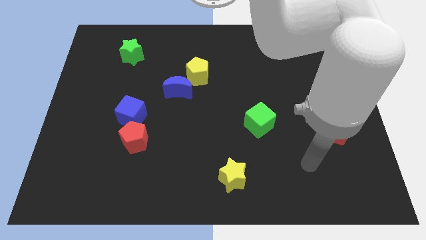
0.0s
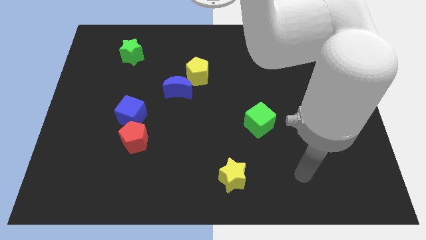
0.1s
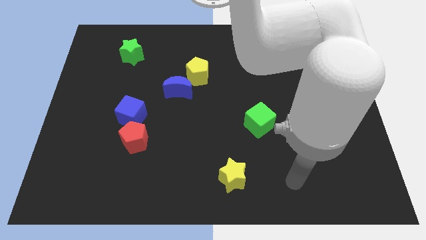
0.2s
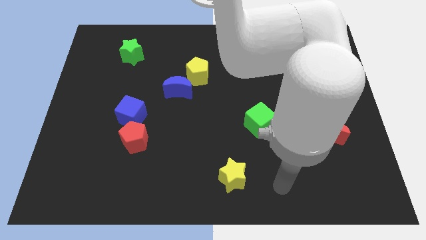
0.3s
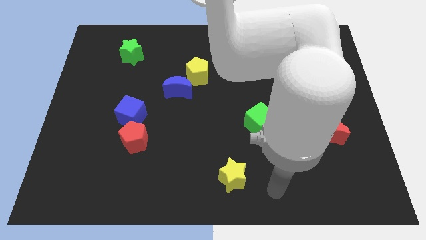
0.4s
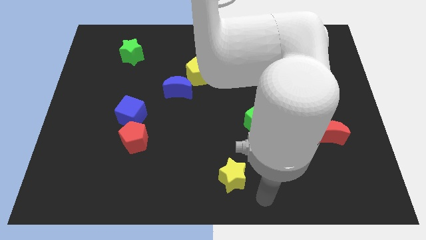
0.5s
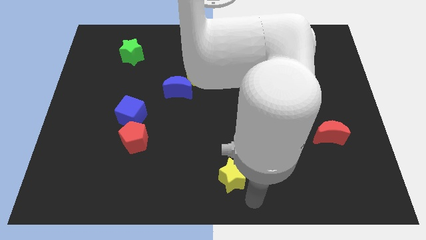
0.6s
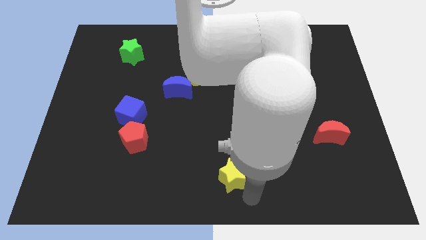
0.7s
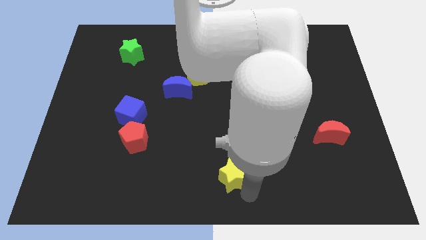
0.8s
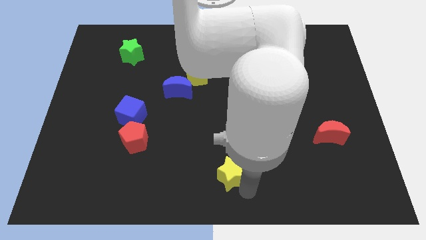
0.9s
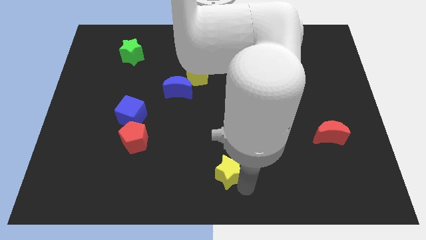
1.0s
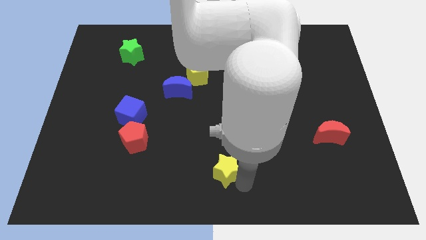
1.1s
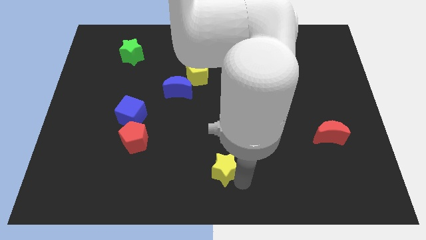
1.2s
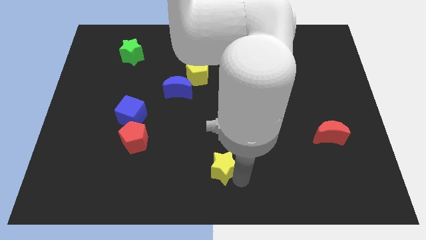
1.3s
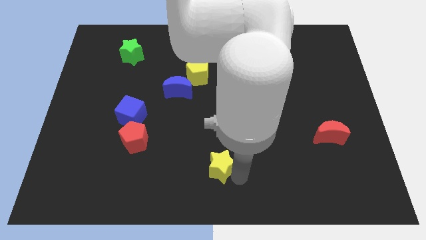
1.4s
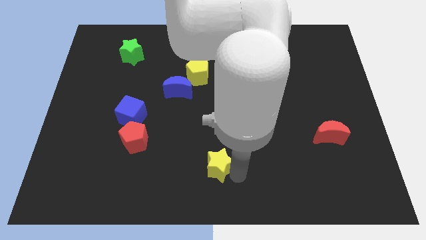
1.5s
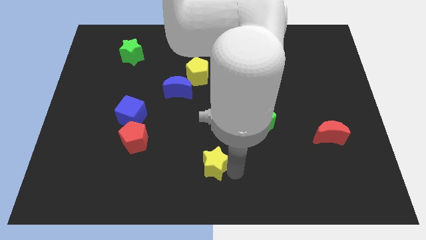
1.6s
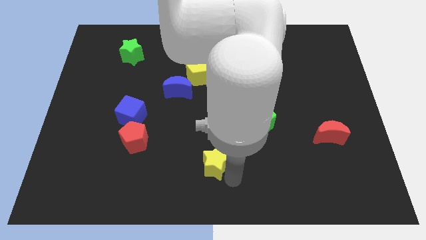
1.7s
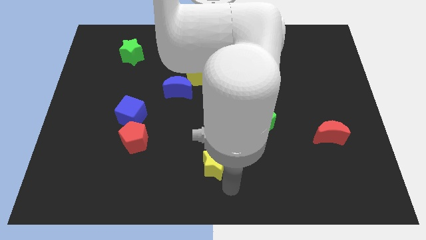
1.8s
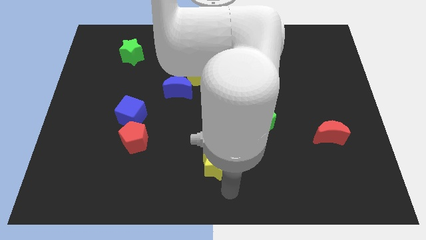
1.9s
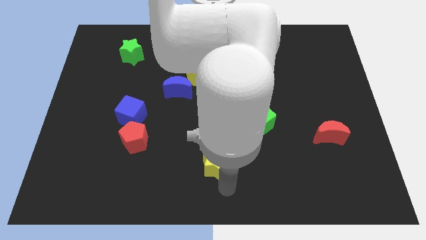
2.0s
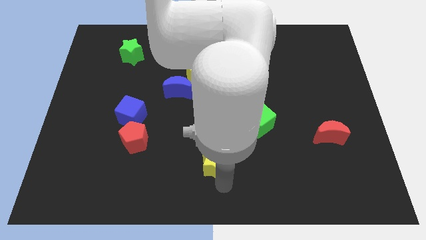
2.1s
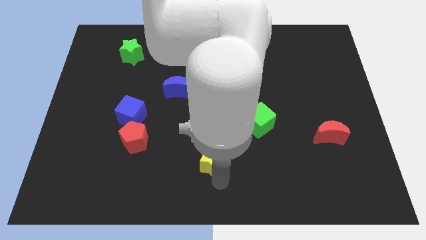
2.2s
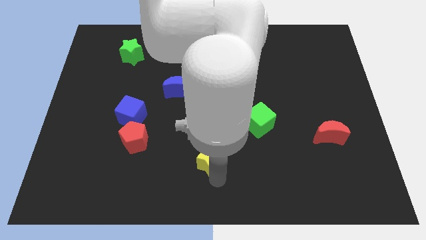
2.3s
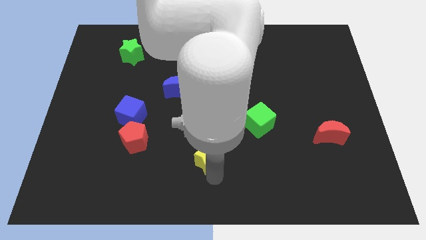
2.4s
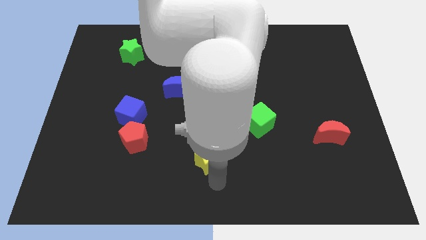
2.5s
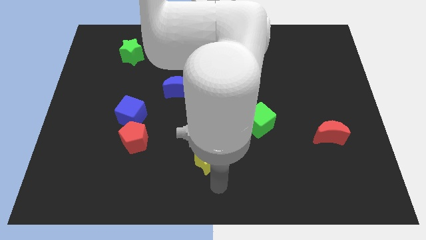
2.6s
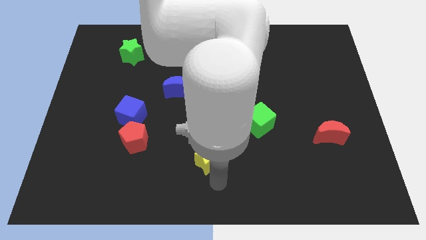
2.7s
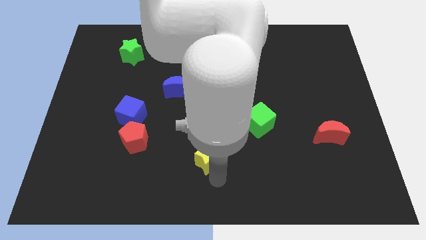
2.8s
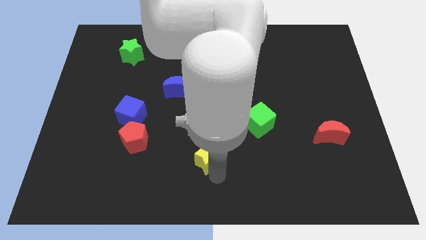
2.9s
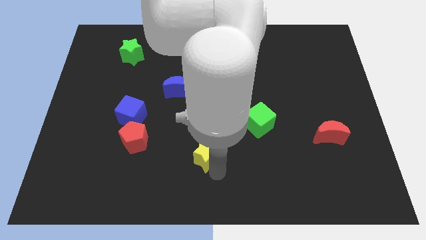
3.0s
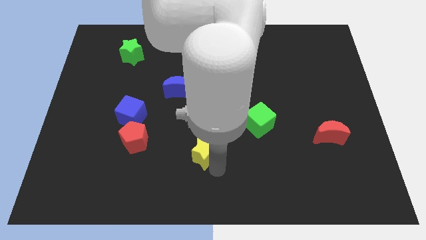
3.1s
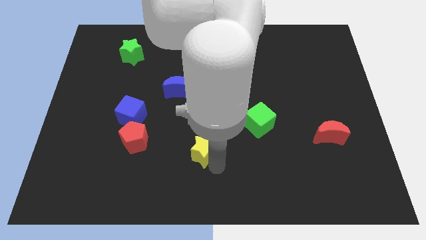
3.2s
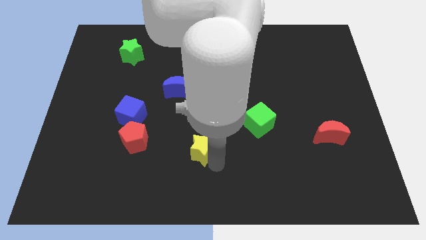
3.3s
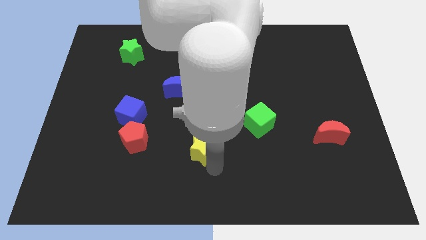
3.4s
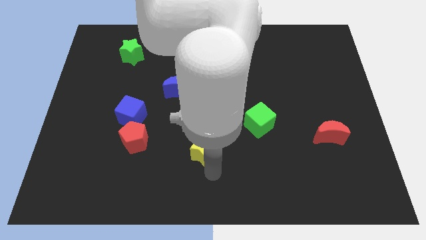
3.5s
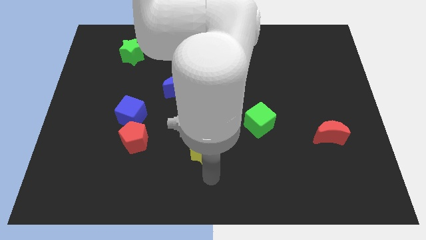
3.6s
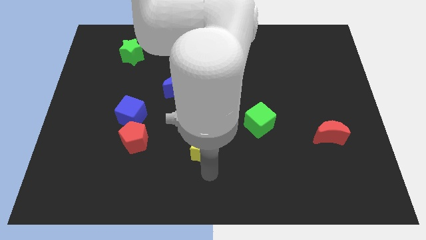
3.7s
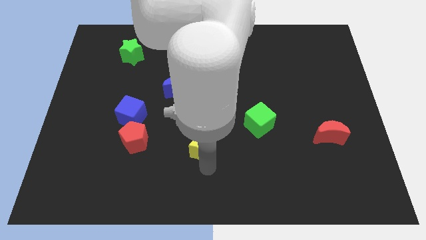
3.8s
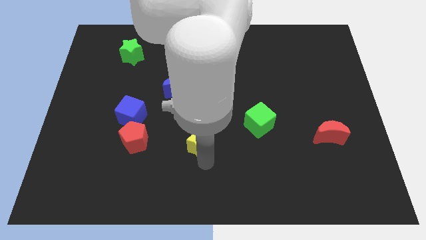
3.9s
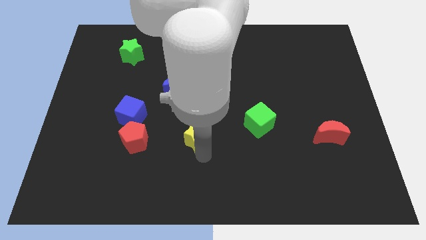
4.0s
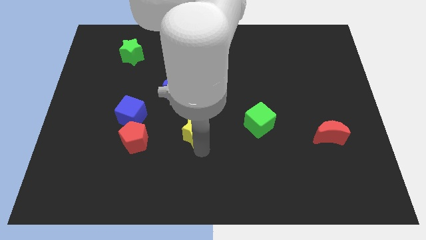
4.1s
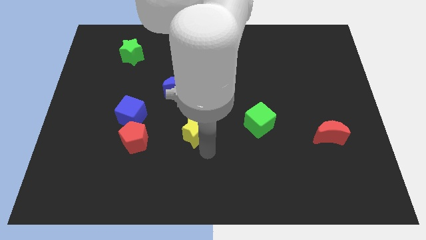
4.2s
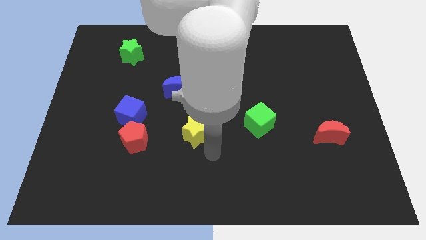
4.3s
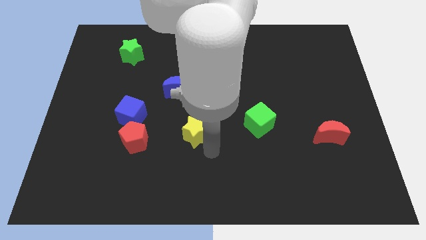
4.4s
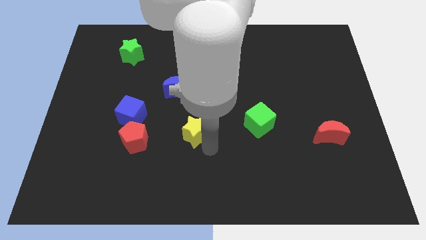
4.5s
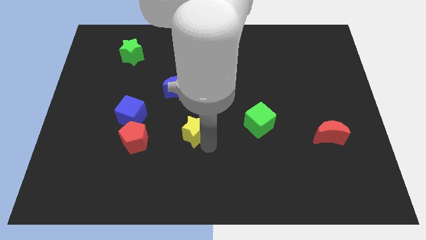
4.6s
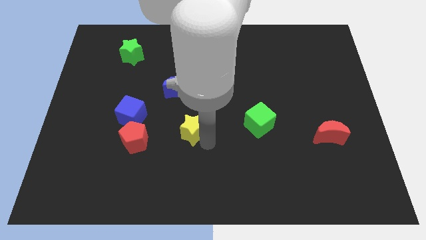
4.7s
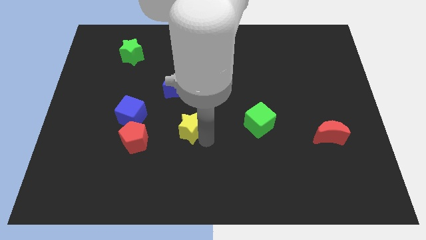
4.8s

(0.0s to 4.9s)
move the yellow star to the right side of the blue cube

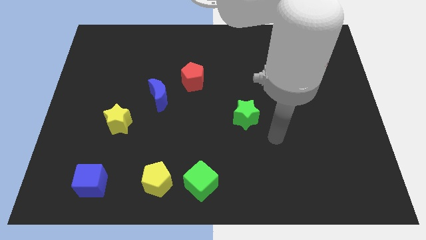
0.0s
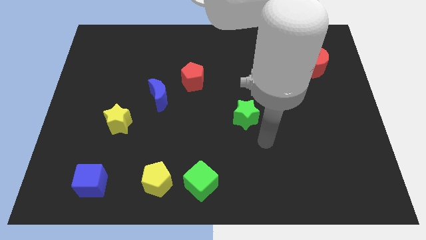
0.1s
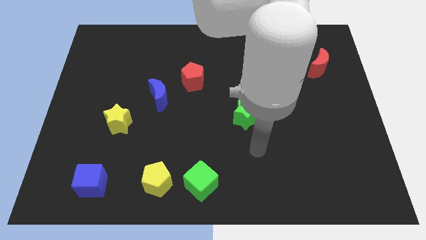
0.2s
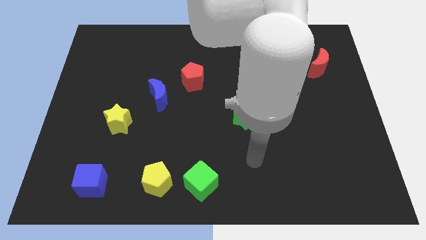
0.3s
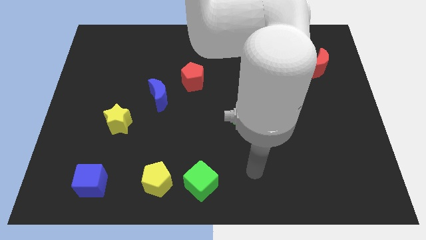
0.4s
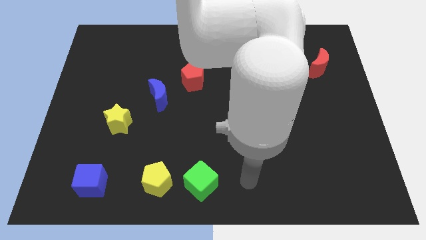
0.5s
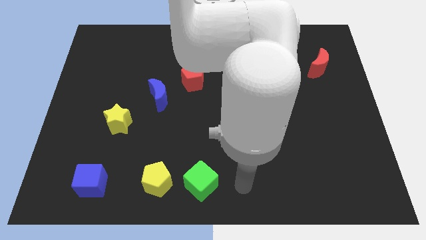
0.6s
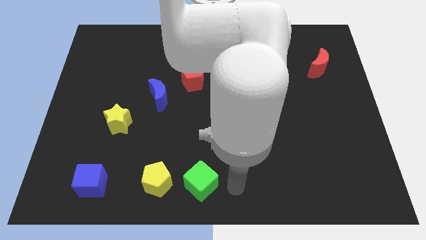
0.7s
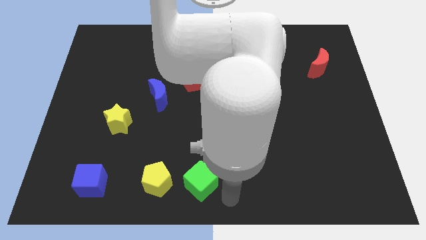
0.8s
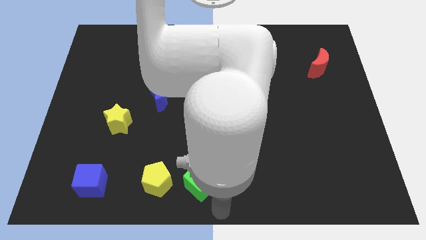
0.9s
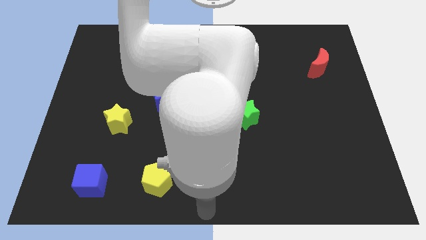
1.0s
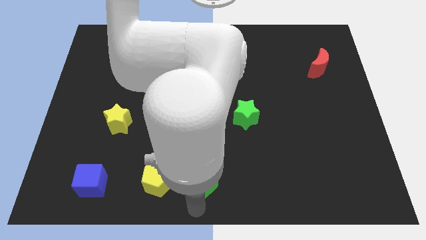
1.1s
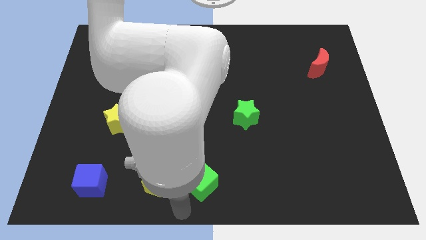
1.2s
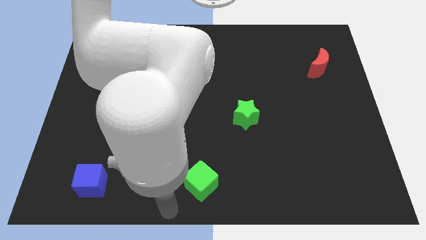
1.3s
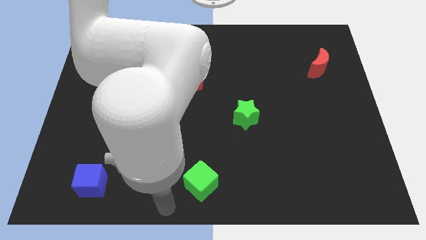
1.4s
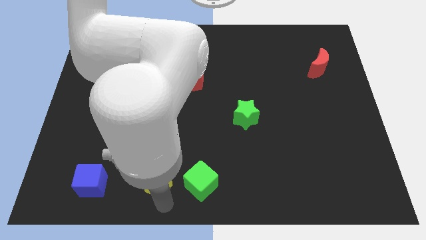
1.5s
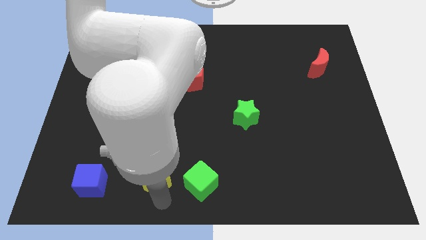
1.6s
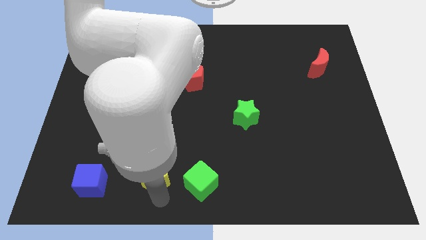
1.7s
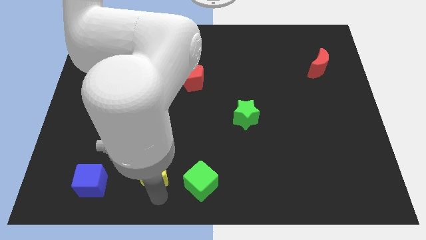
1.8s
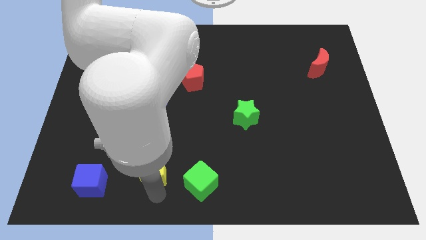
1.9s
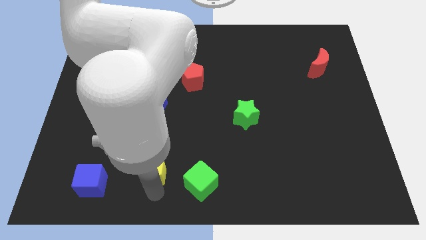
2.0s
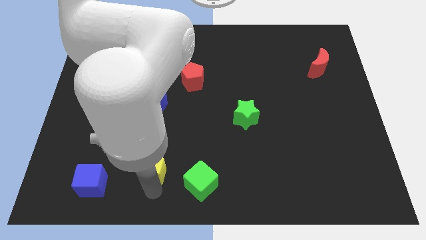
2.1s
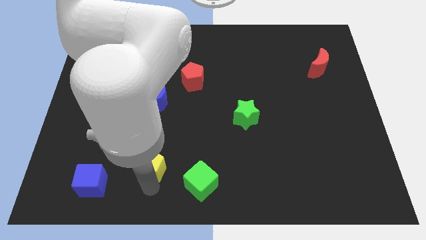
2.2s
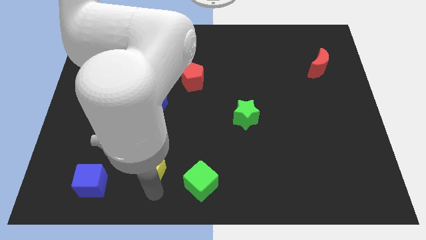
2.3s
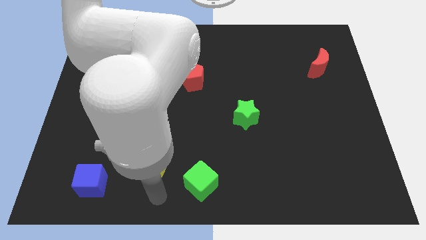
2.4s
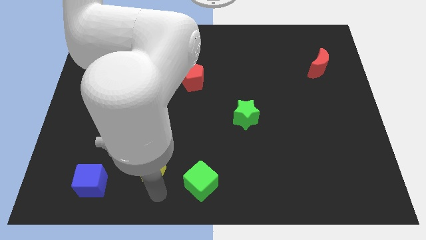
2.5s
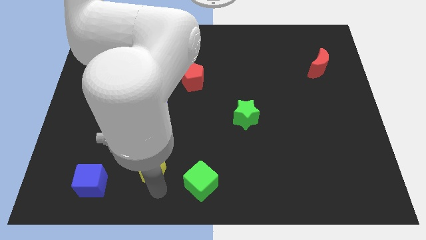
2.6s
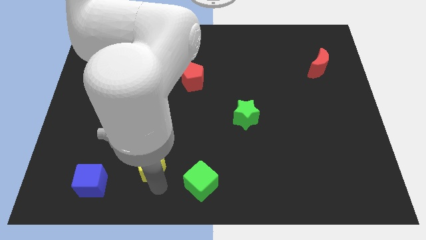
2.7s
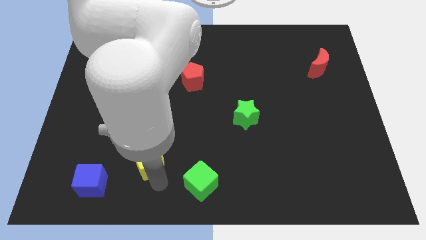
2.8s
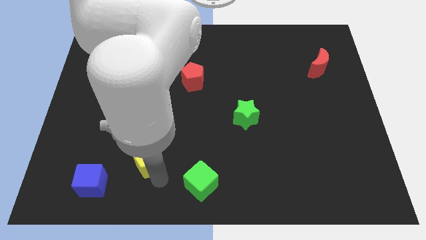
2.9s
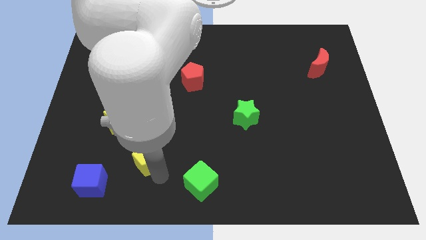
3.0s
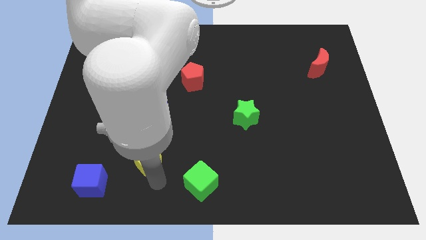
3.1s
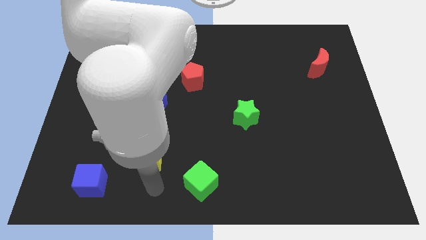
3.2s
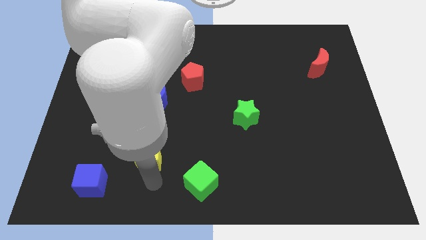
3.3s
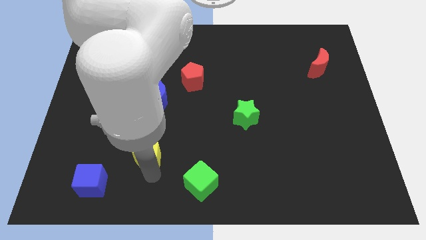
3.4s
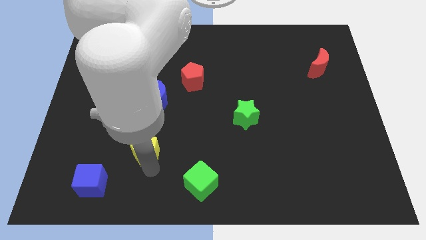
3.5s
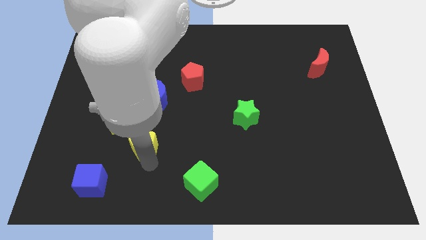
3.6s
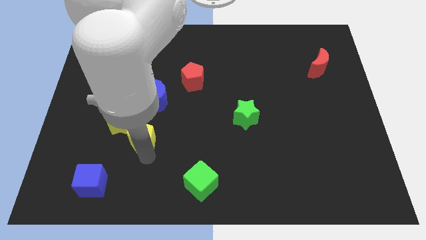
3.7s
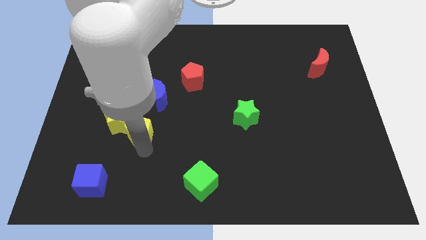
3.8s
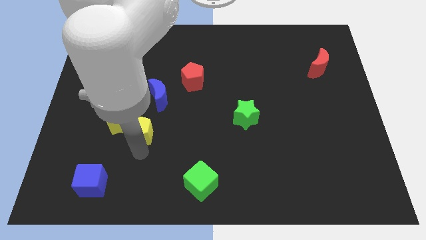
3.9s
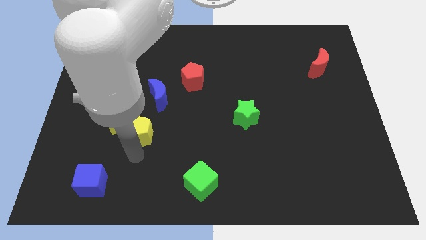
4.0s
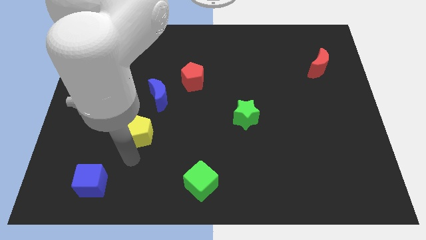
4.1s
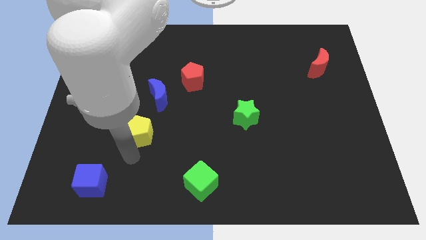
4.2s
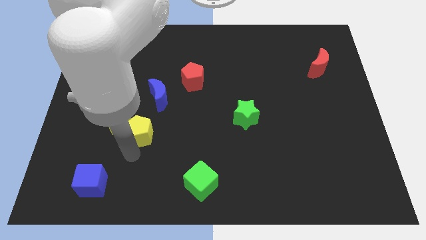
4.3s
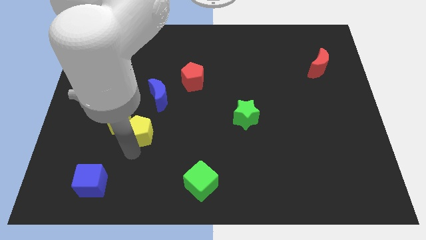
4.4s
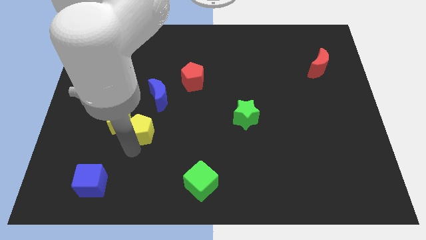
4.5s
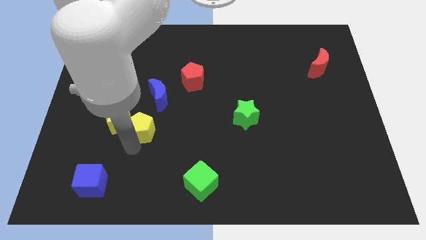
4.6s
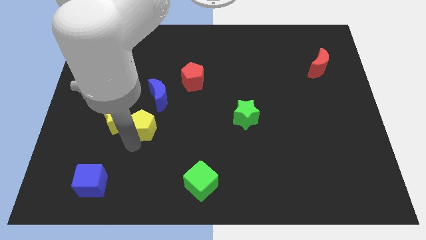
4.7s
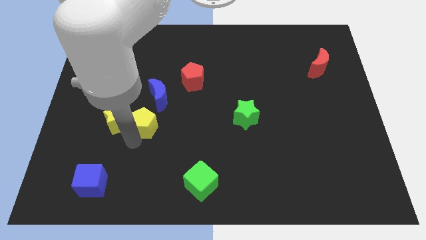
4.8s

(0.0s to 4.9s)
slide the yellow pentagon diagonally up and to the right of the yellow star
